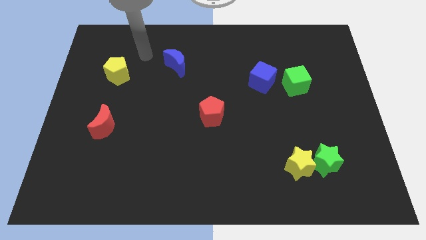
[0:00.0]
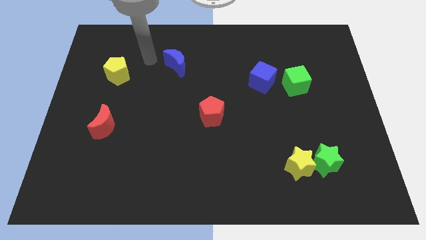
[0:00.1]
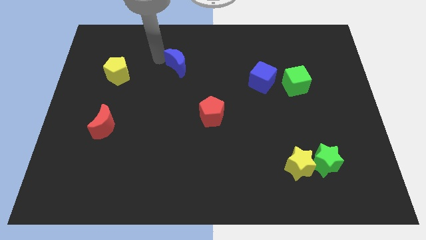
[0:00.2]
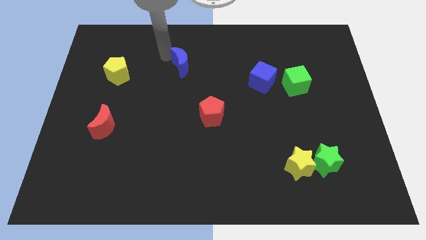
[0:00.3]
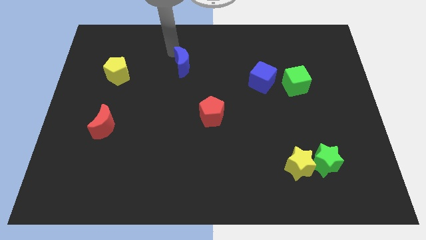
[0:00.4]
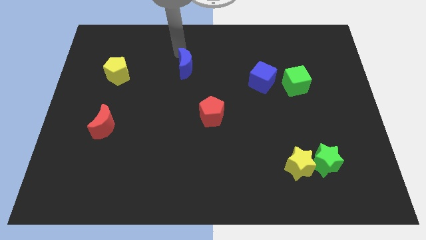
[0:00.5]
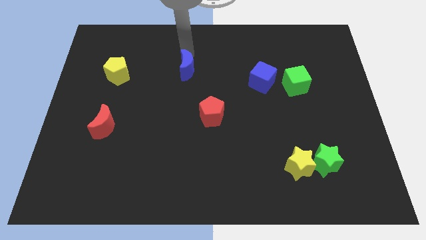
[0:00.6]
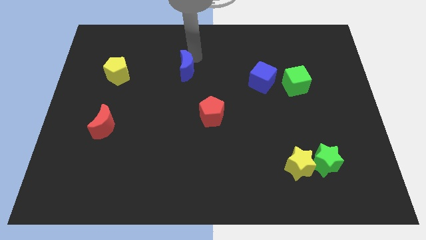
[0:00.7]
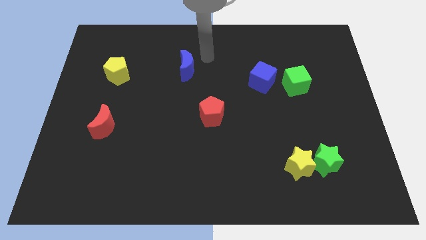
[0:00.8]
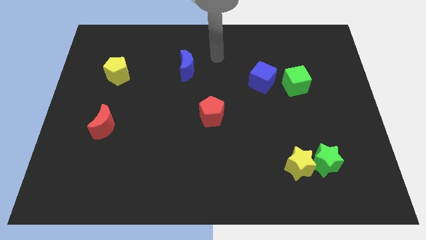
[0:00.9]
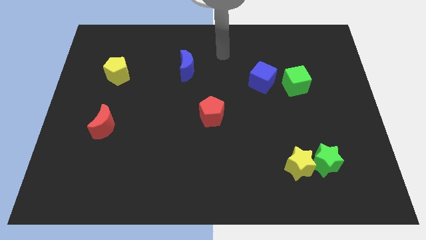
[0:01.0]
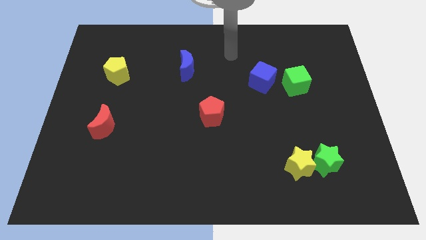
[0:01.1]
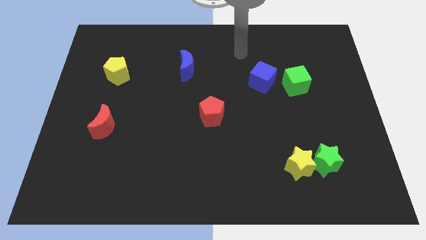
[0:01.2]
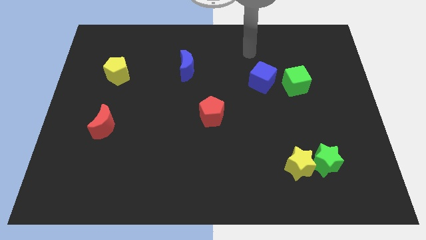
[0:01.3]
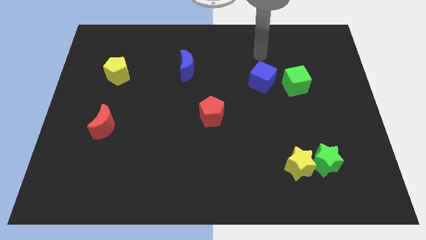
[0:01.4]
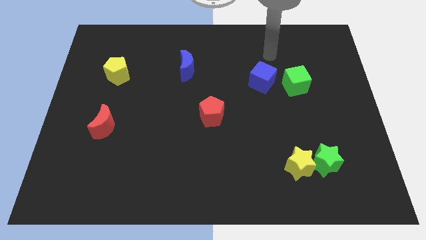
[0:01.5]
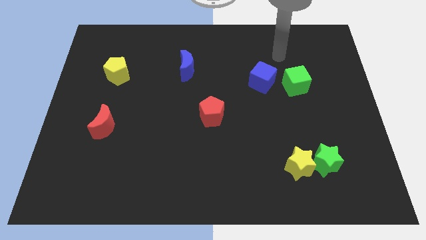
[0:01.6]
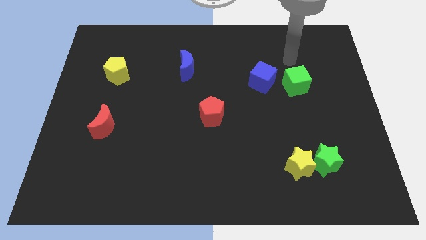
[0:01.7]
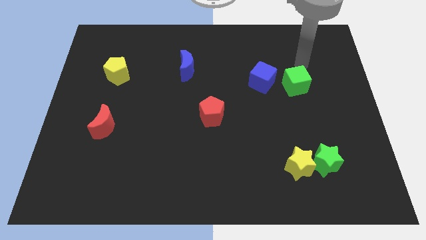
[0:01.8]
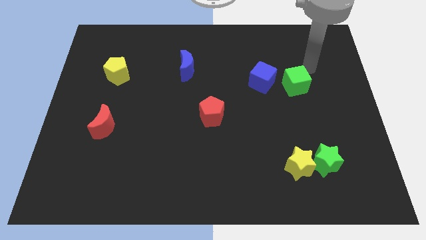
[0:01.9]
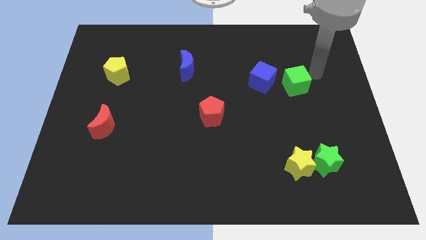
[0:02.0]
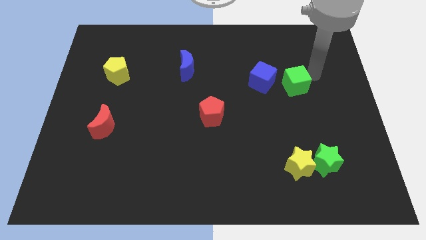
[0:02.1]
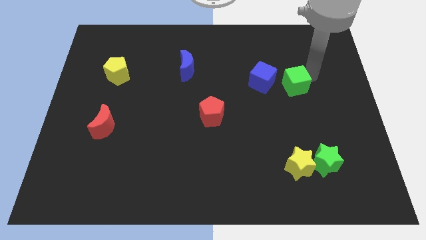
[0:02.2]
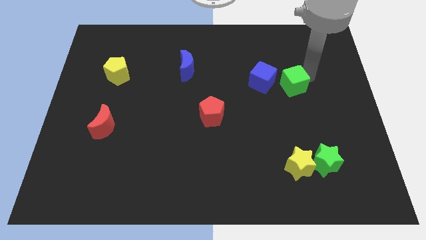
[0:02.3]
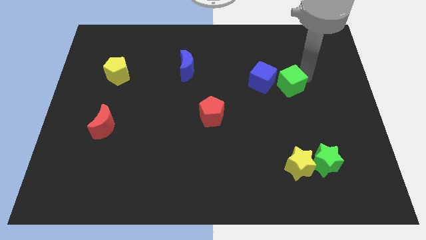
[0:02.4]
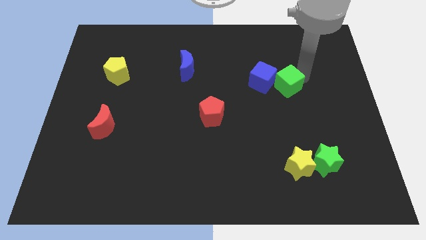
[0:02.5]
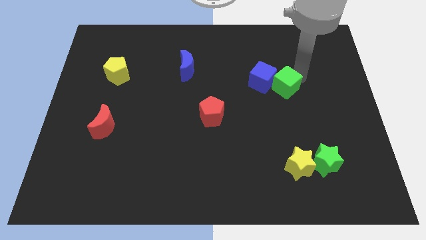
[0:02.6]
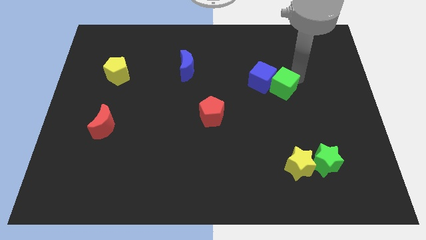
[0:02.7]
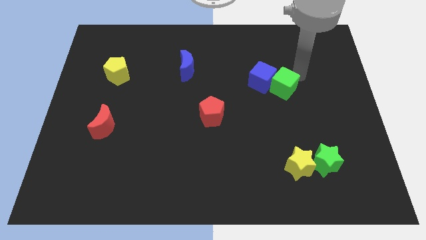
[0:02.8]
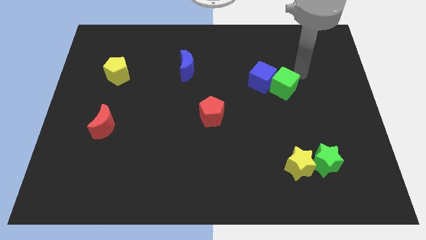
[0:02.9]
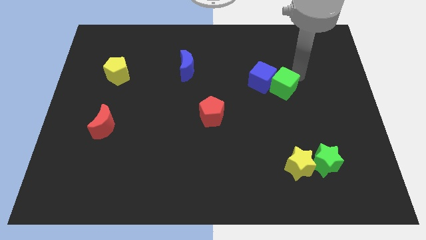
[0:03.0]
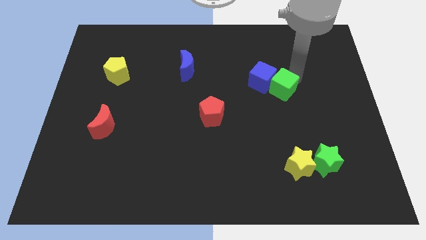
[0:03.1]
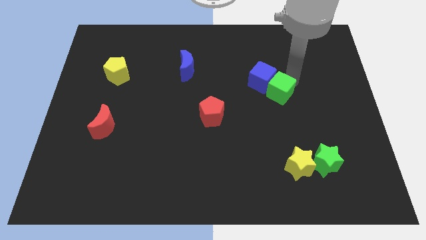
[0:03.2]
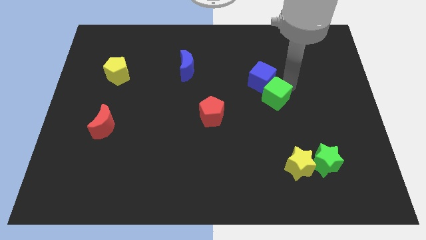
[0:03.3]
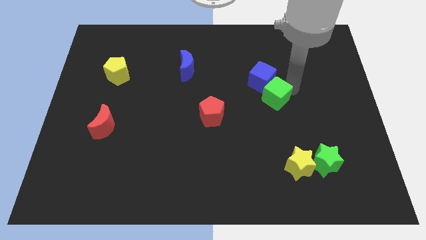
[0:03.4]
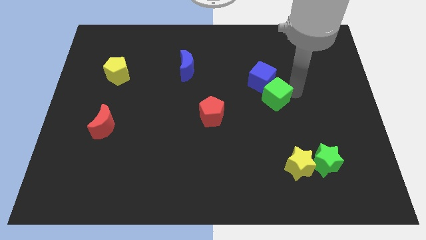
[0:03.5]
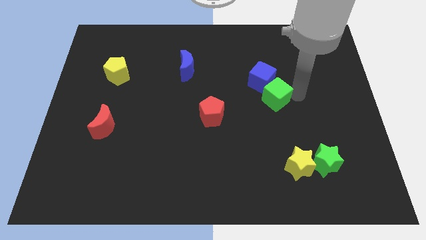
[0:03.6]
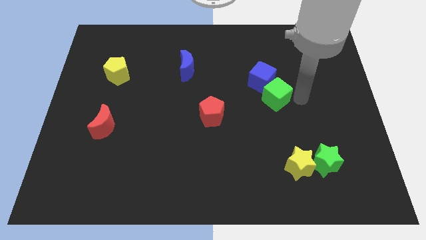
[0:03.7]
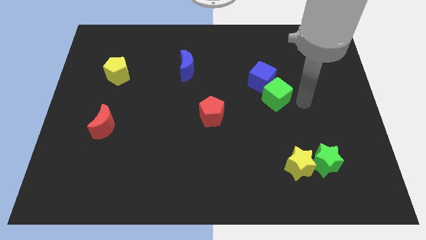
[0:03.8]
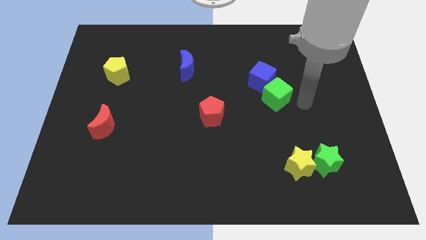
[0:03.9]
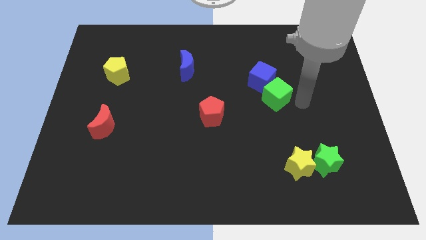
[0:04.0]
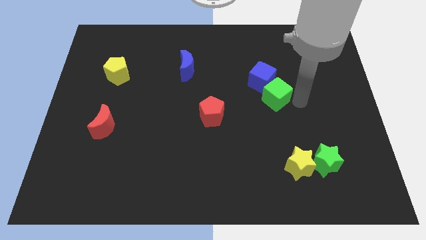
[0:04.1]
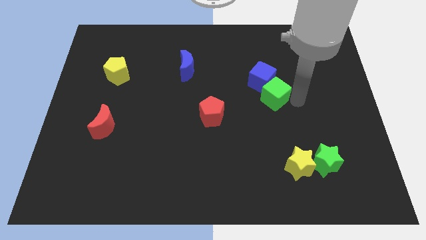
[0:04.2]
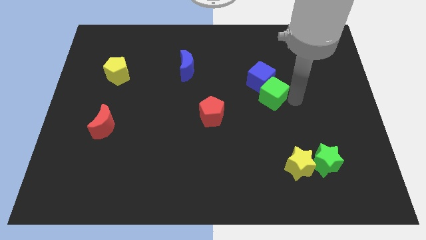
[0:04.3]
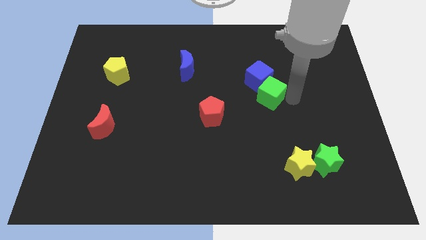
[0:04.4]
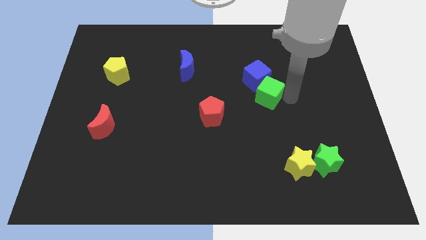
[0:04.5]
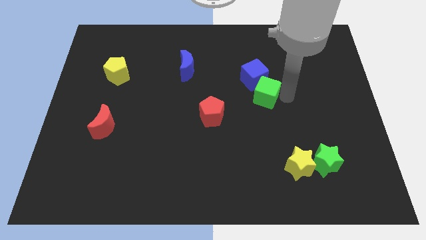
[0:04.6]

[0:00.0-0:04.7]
push the green cube left slightly

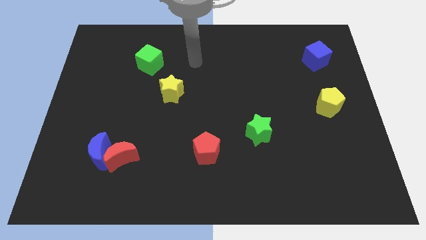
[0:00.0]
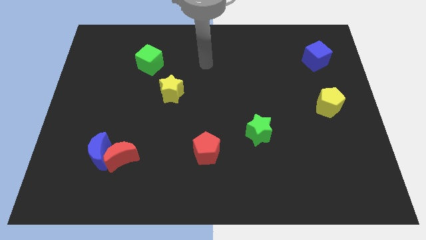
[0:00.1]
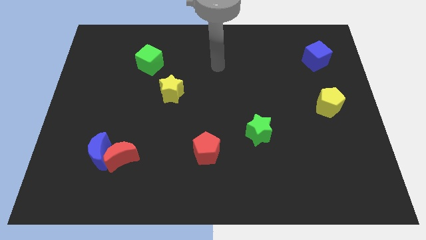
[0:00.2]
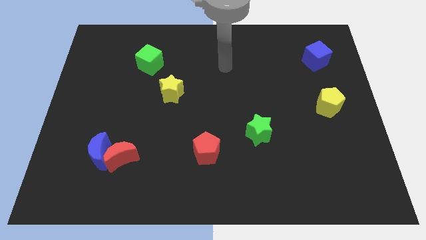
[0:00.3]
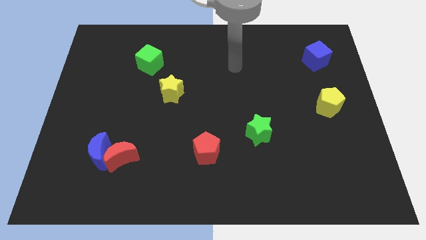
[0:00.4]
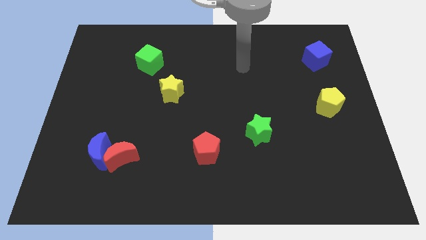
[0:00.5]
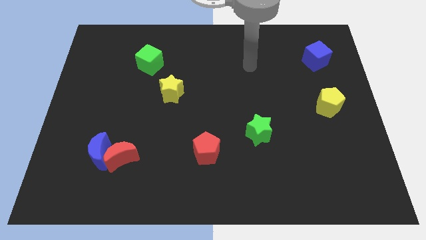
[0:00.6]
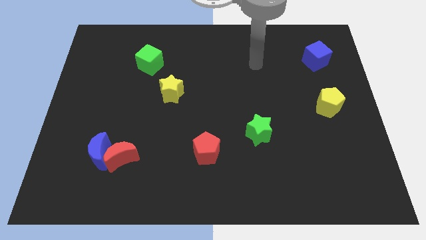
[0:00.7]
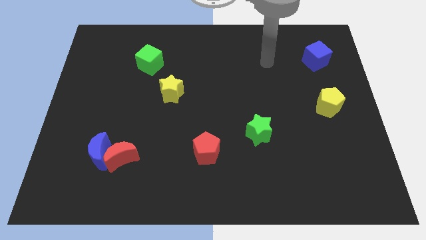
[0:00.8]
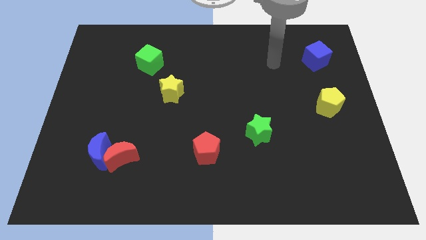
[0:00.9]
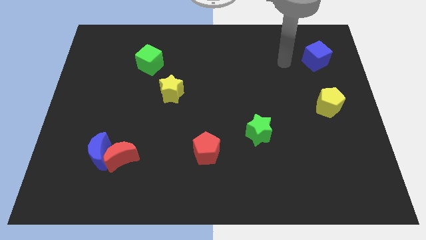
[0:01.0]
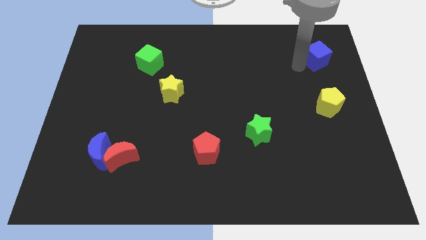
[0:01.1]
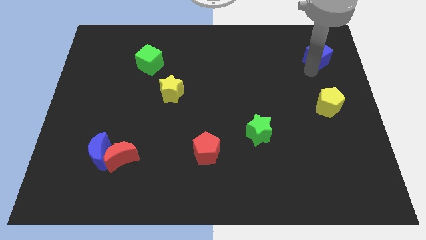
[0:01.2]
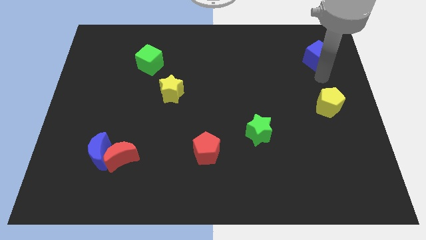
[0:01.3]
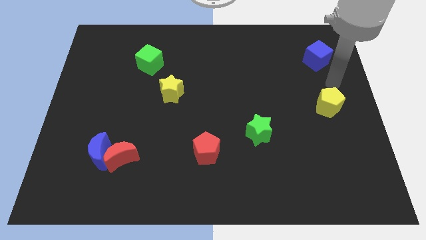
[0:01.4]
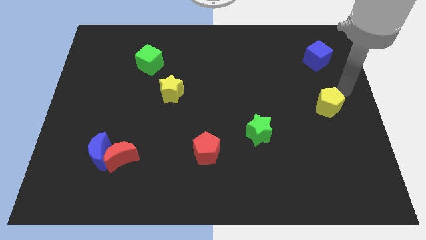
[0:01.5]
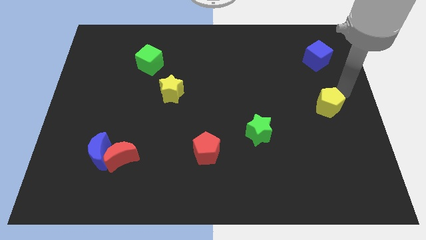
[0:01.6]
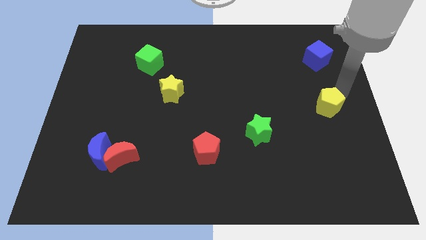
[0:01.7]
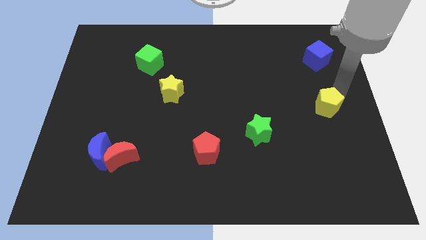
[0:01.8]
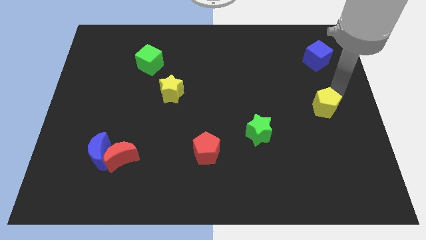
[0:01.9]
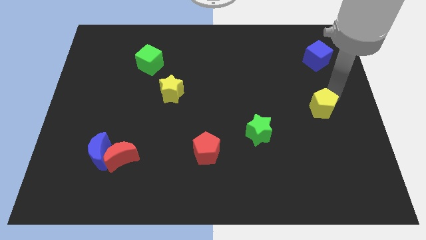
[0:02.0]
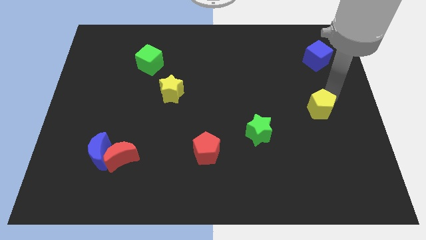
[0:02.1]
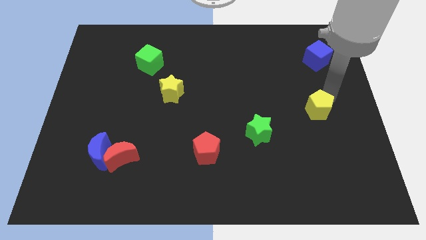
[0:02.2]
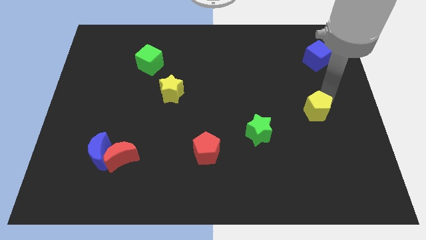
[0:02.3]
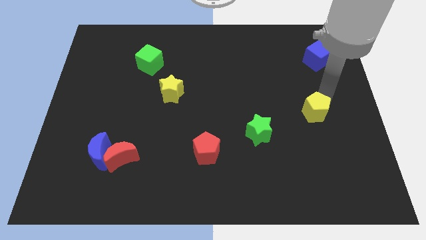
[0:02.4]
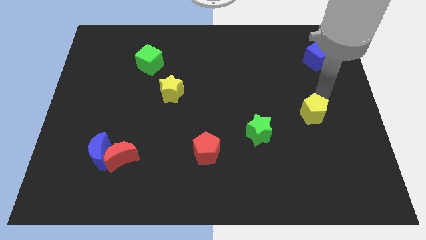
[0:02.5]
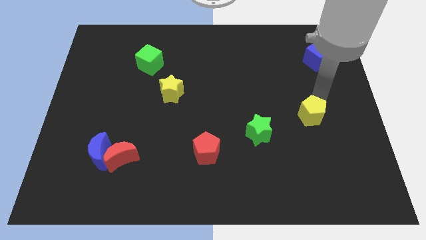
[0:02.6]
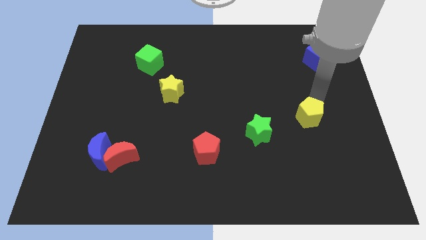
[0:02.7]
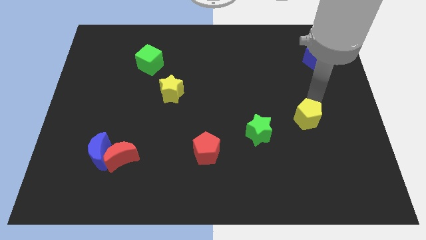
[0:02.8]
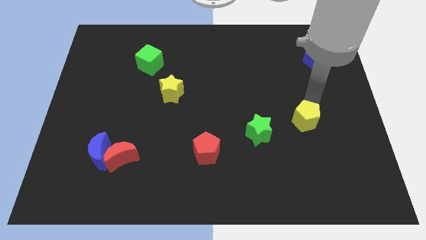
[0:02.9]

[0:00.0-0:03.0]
slightly move the yellow pentagon diagonally downwards and left

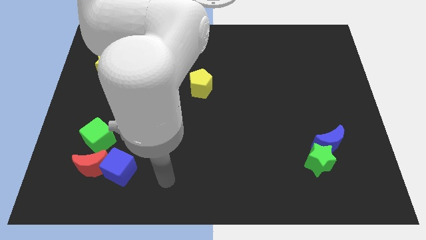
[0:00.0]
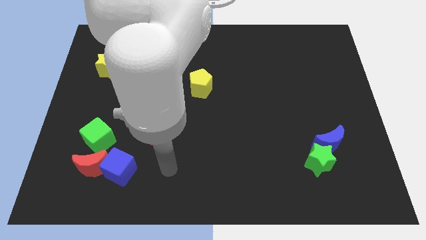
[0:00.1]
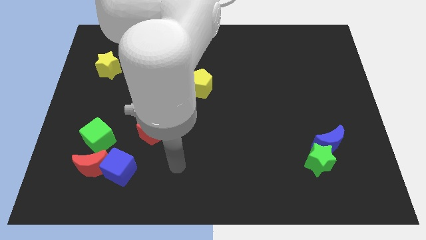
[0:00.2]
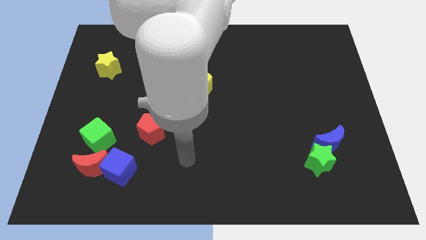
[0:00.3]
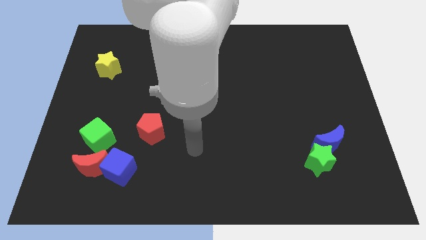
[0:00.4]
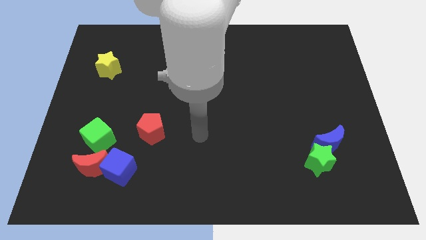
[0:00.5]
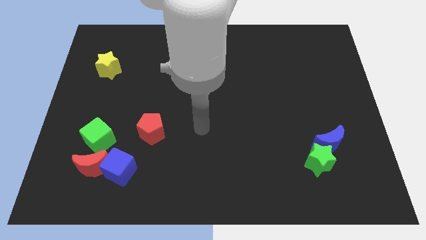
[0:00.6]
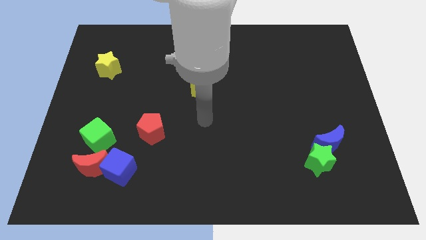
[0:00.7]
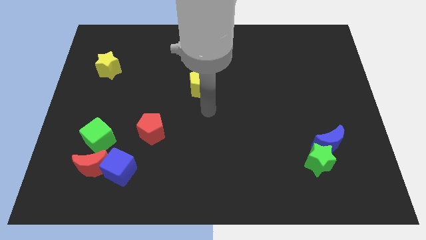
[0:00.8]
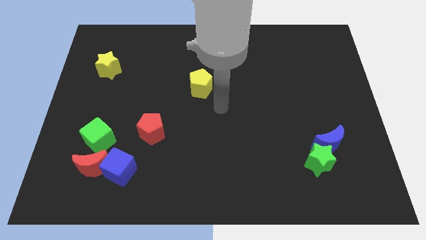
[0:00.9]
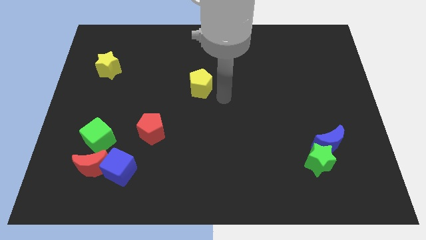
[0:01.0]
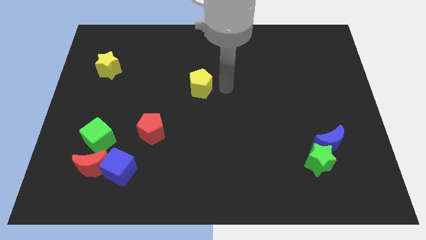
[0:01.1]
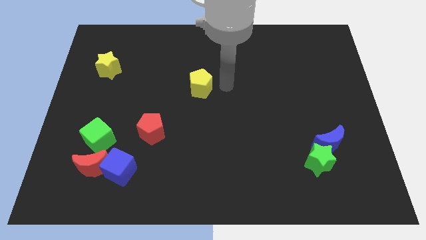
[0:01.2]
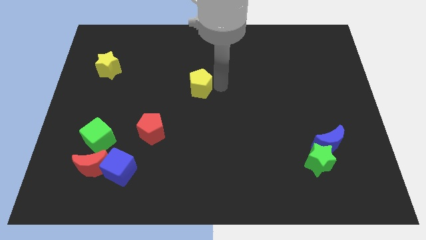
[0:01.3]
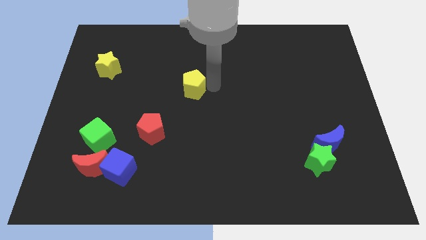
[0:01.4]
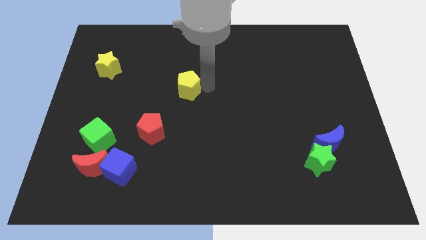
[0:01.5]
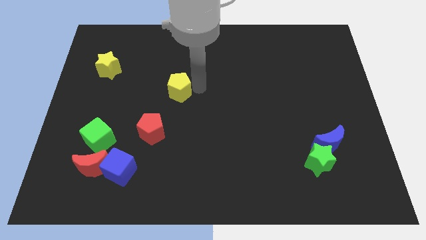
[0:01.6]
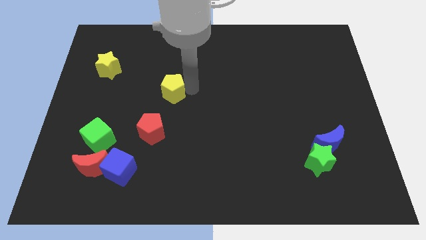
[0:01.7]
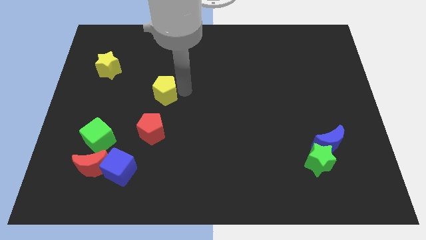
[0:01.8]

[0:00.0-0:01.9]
push the yellow pentagon slightly to the left
